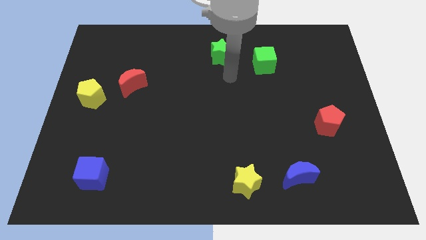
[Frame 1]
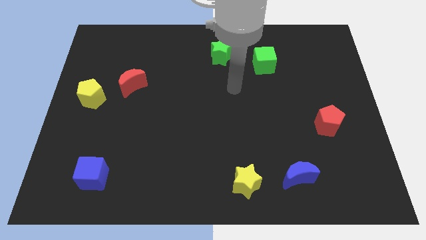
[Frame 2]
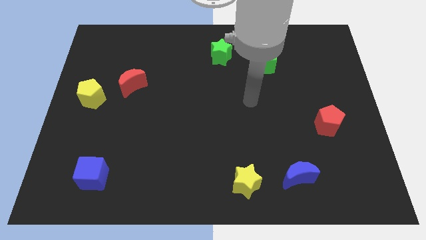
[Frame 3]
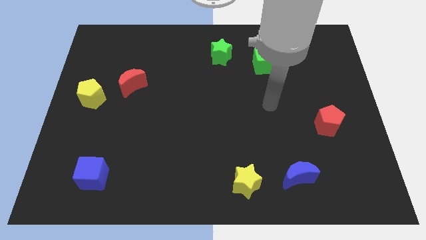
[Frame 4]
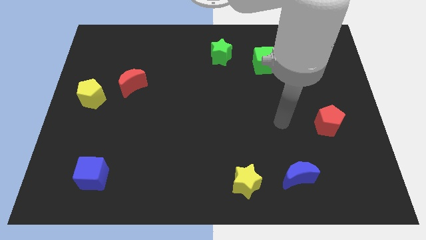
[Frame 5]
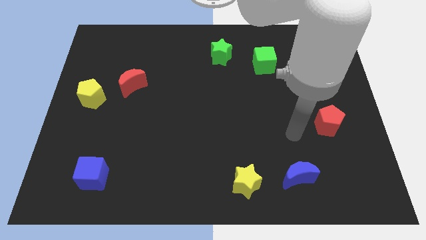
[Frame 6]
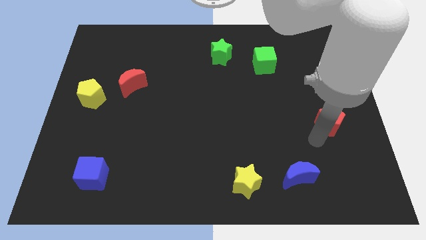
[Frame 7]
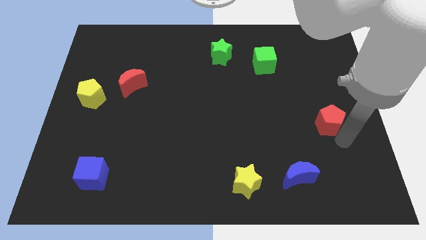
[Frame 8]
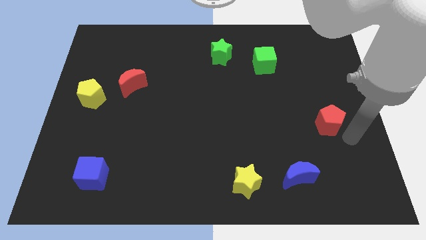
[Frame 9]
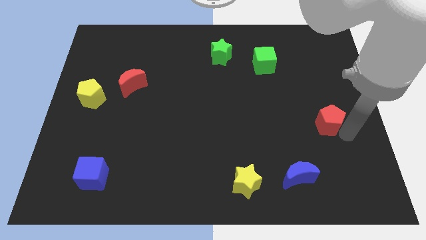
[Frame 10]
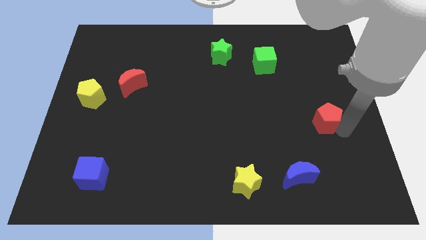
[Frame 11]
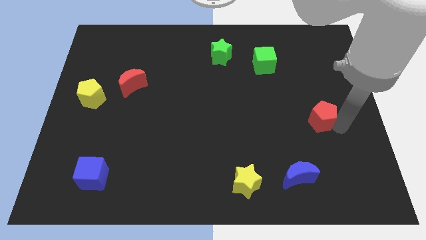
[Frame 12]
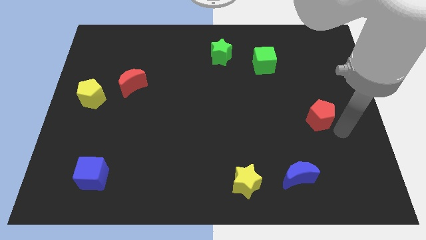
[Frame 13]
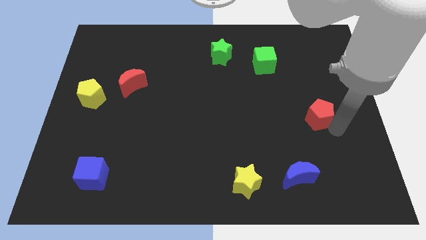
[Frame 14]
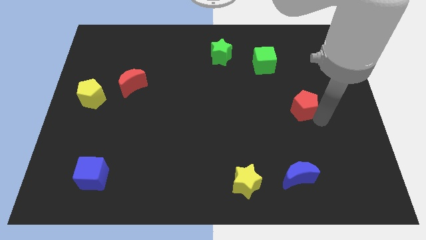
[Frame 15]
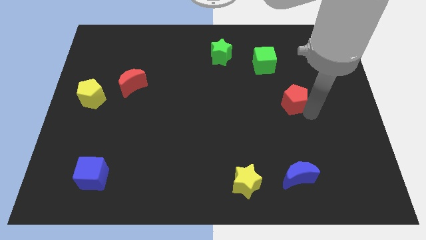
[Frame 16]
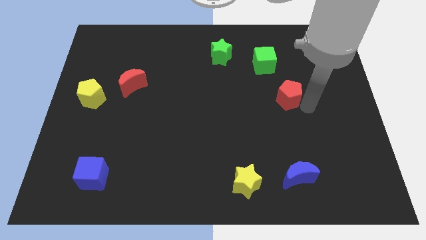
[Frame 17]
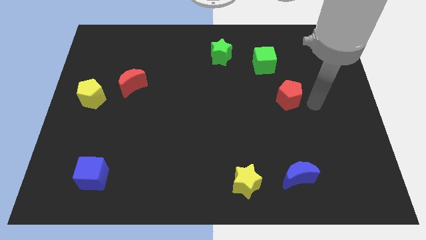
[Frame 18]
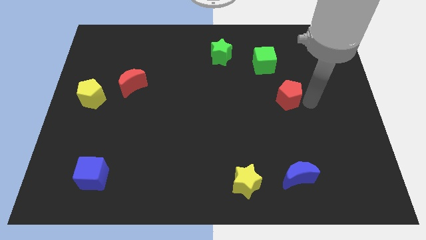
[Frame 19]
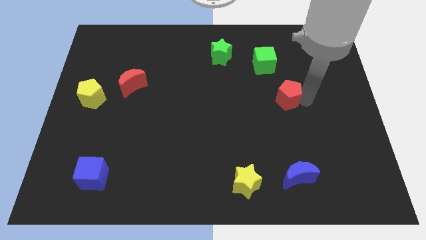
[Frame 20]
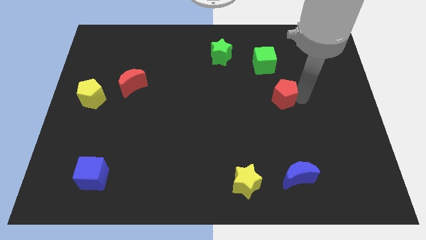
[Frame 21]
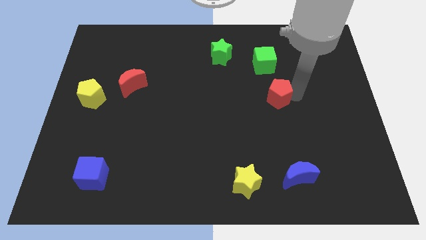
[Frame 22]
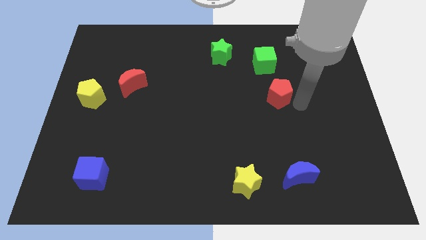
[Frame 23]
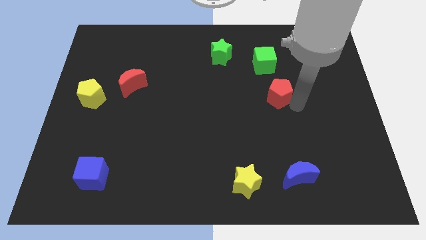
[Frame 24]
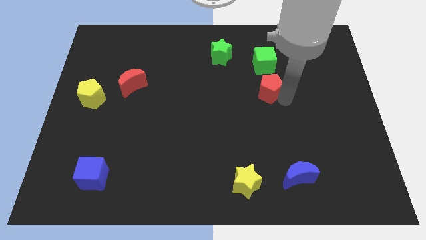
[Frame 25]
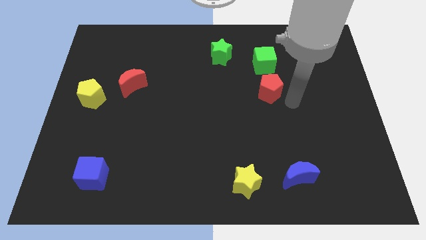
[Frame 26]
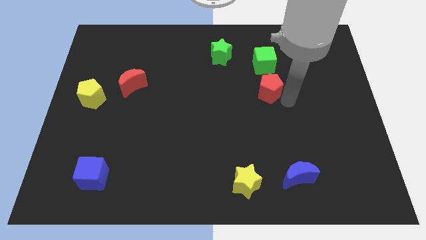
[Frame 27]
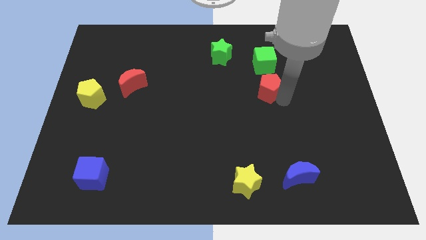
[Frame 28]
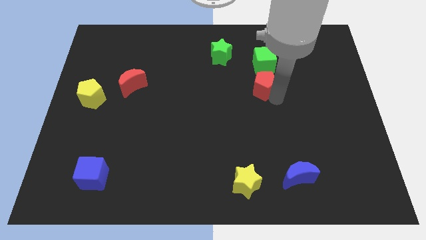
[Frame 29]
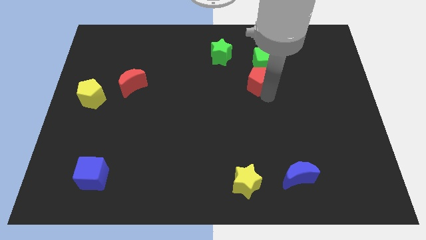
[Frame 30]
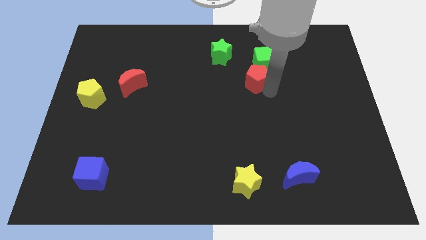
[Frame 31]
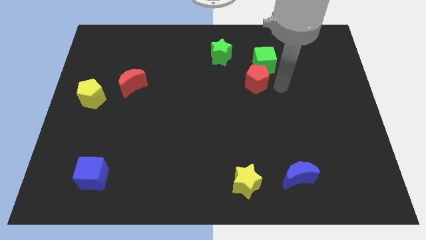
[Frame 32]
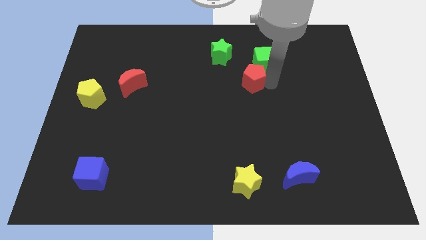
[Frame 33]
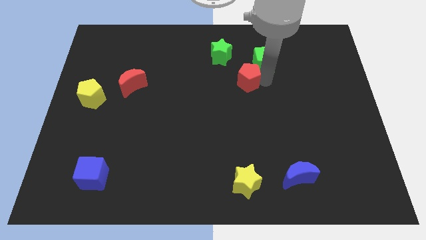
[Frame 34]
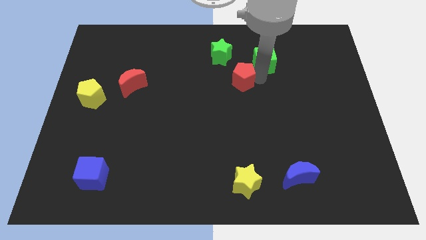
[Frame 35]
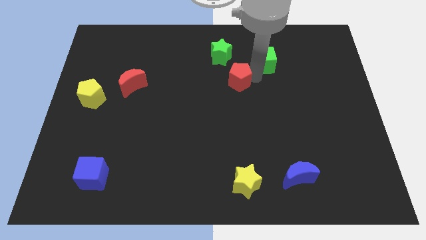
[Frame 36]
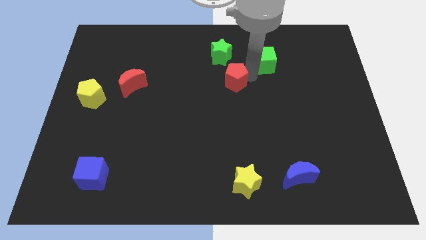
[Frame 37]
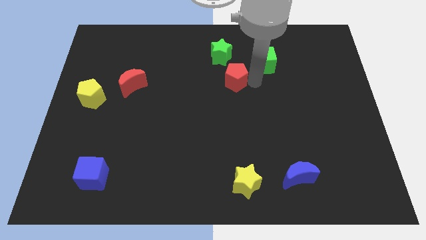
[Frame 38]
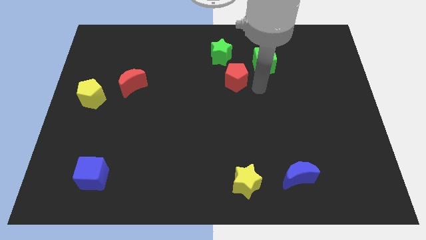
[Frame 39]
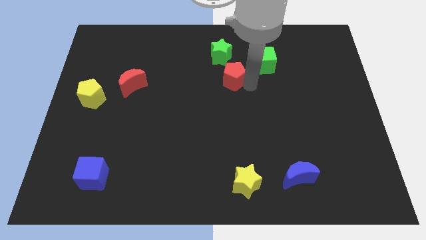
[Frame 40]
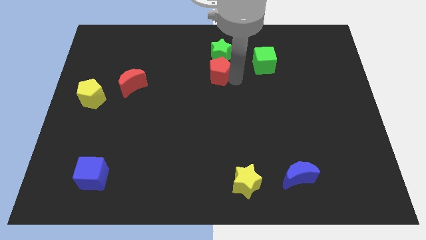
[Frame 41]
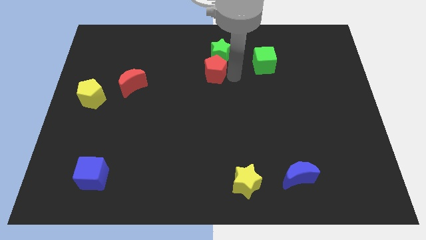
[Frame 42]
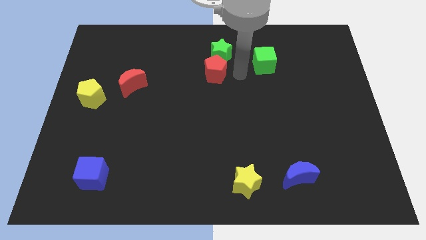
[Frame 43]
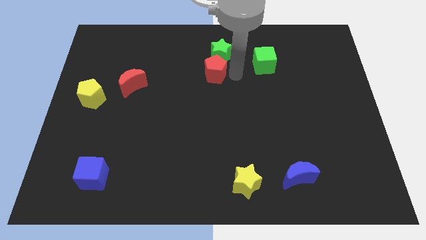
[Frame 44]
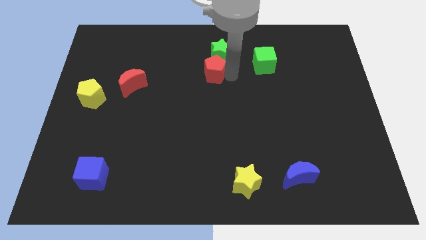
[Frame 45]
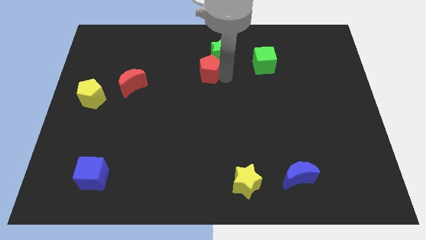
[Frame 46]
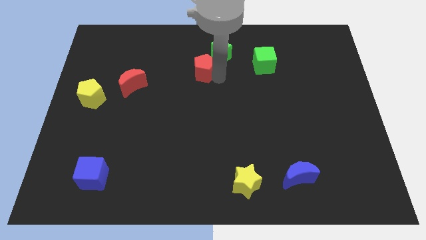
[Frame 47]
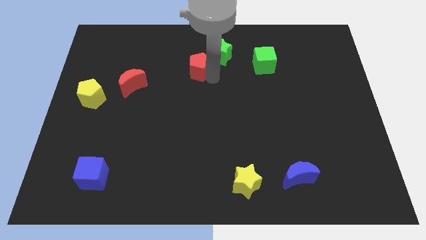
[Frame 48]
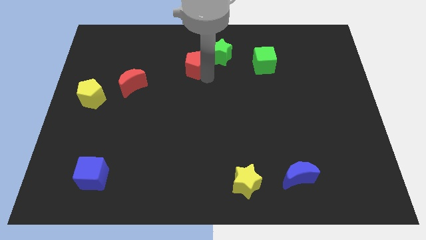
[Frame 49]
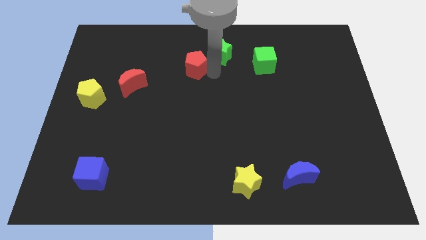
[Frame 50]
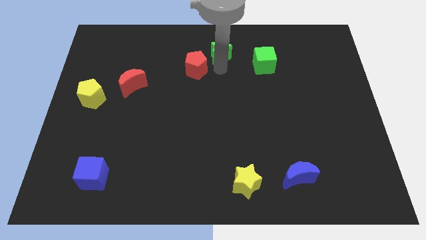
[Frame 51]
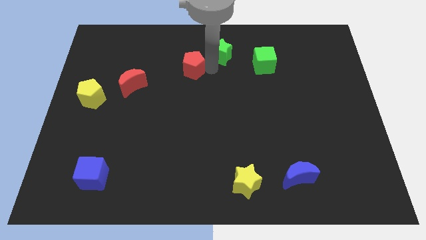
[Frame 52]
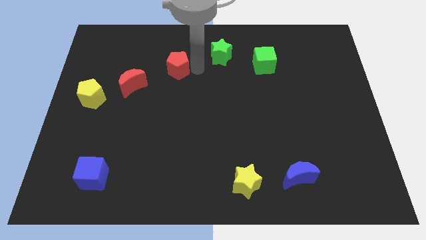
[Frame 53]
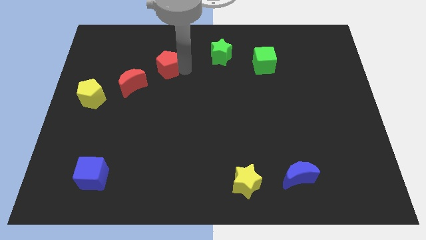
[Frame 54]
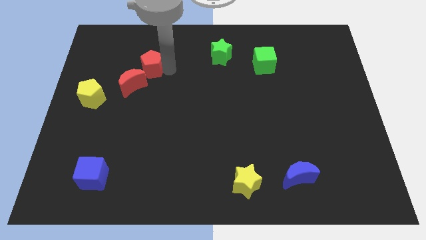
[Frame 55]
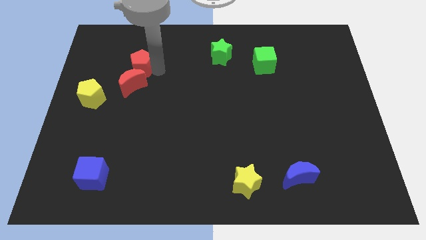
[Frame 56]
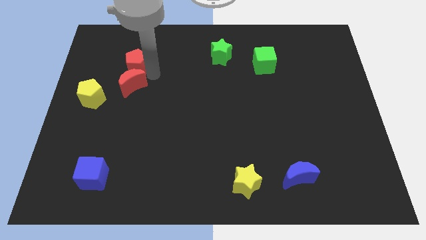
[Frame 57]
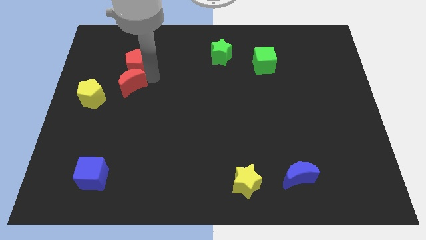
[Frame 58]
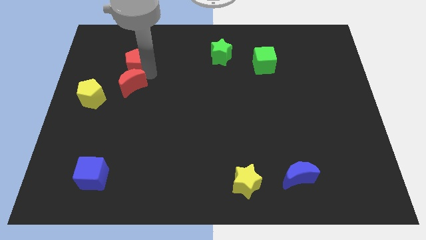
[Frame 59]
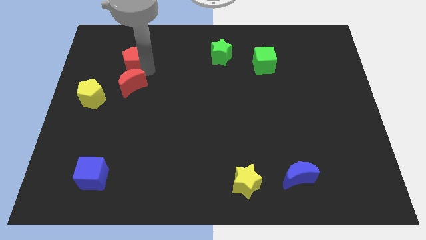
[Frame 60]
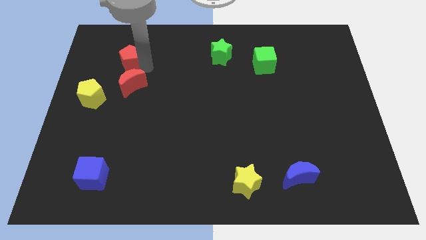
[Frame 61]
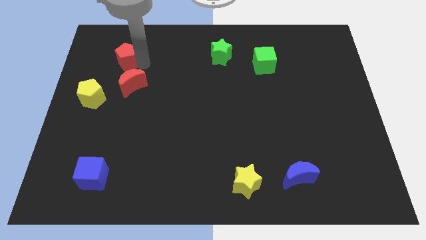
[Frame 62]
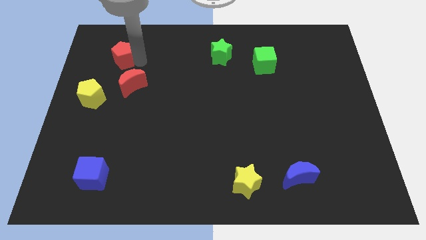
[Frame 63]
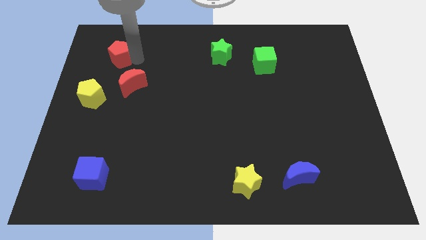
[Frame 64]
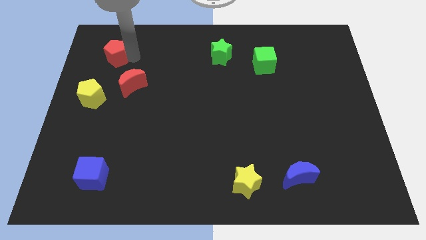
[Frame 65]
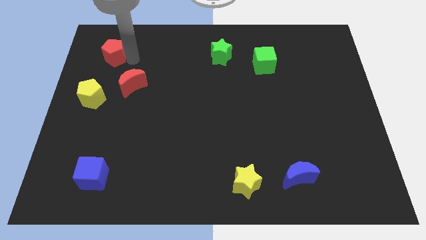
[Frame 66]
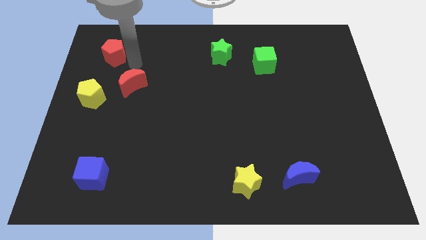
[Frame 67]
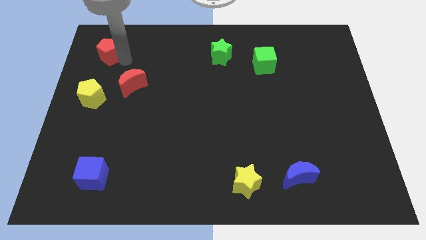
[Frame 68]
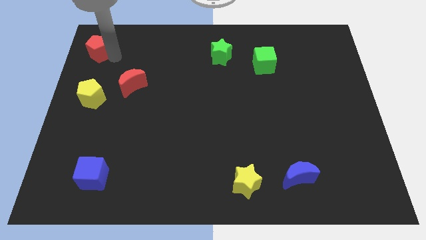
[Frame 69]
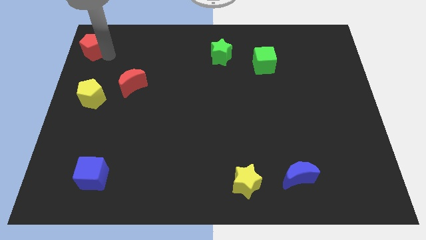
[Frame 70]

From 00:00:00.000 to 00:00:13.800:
slide the red pentagon to the top left corner
